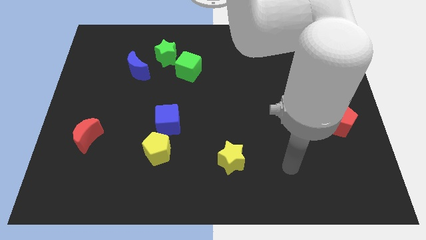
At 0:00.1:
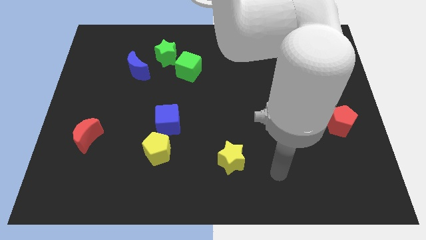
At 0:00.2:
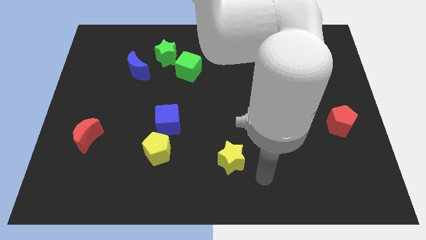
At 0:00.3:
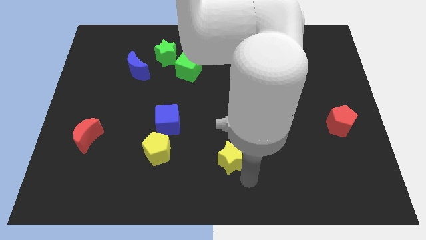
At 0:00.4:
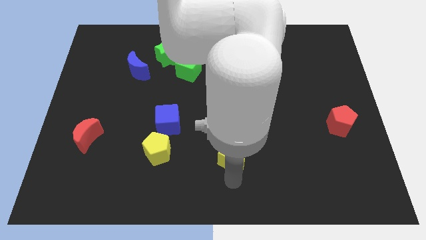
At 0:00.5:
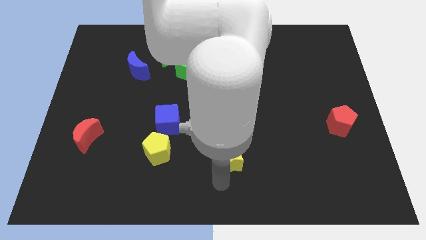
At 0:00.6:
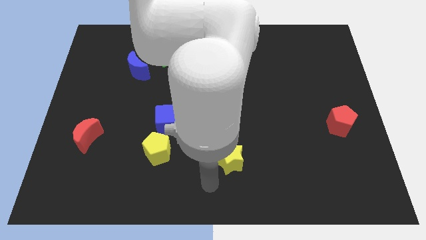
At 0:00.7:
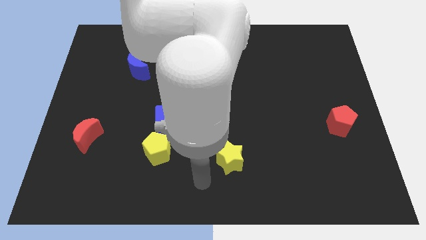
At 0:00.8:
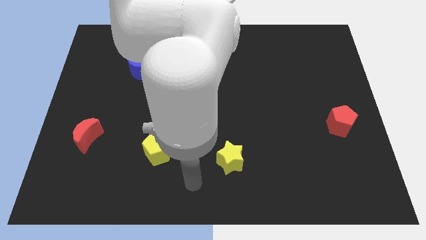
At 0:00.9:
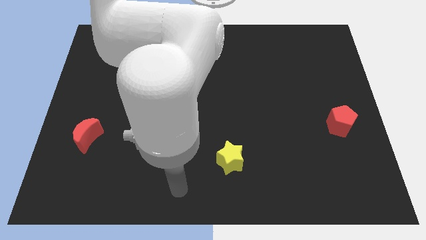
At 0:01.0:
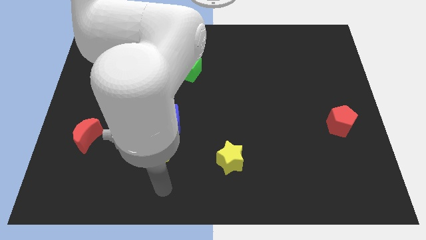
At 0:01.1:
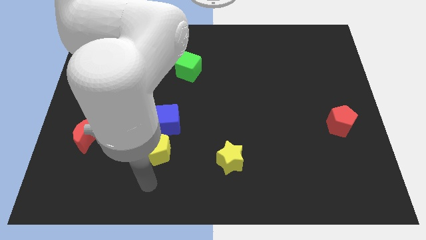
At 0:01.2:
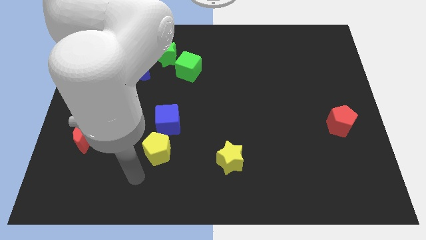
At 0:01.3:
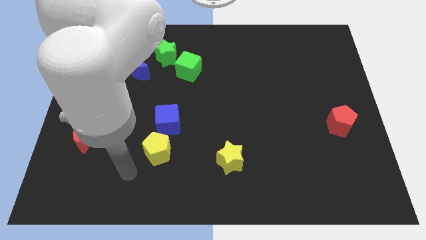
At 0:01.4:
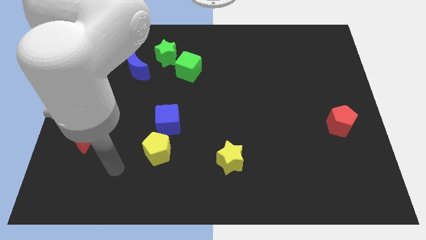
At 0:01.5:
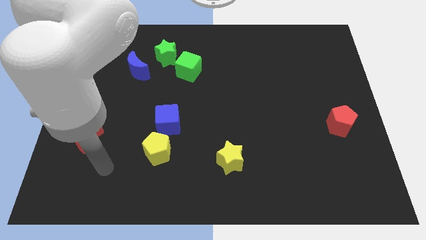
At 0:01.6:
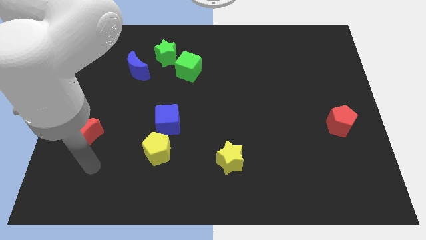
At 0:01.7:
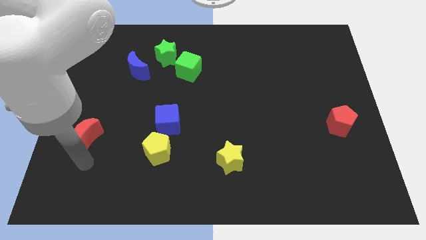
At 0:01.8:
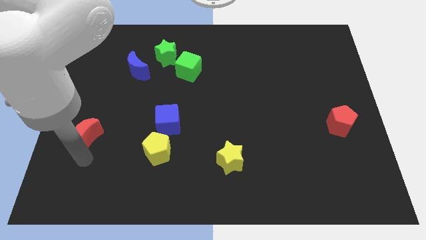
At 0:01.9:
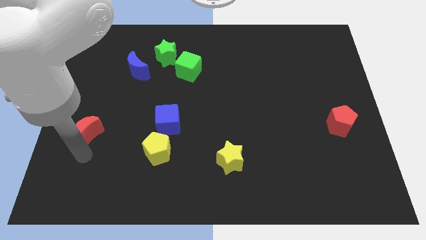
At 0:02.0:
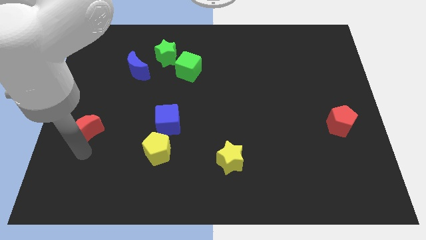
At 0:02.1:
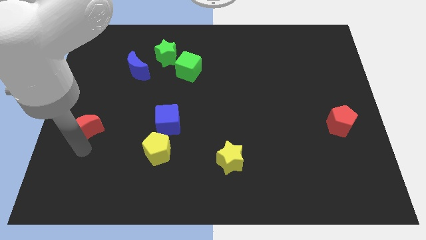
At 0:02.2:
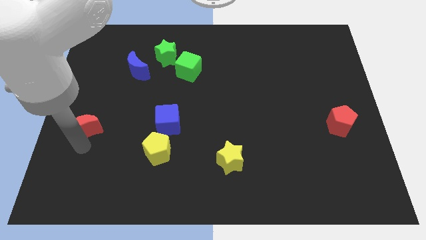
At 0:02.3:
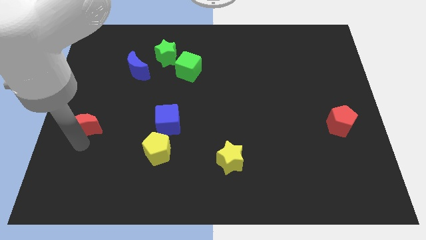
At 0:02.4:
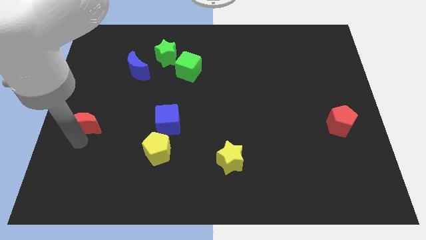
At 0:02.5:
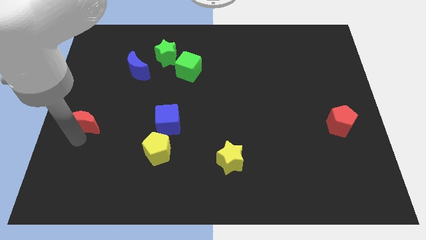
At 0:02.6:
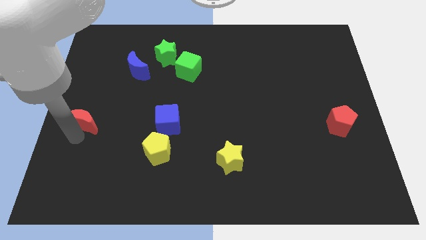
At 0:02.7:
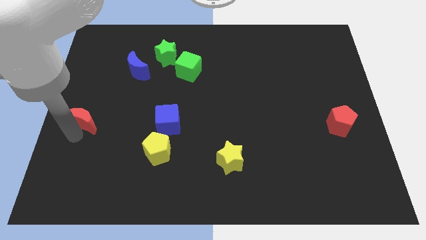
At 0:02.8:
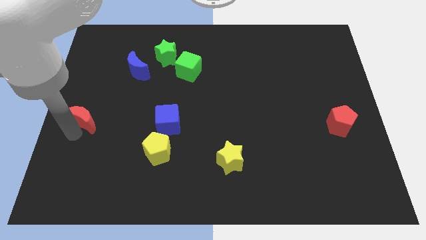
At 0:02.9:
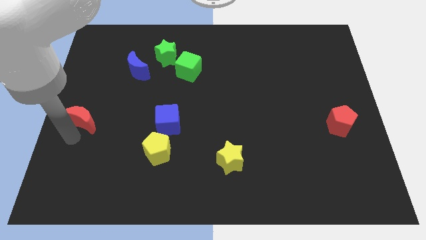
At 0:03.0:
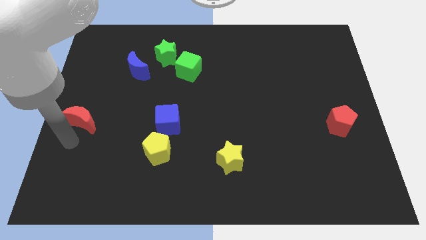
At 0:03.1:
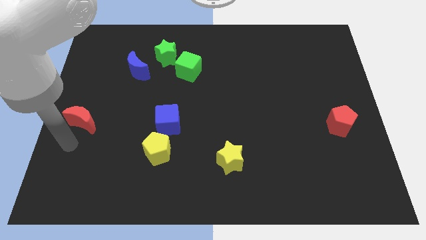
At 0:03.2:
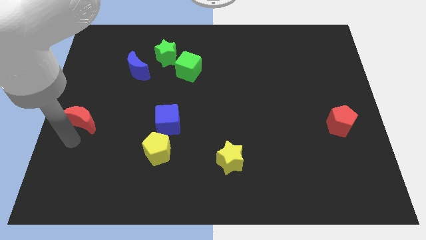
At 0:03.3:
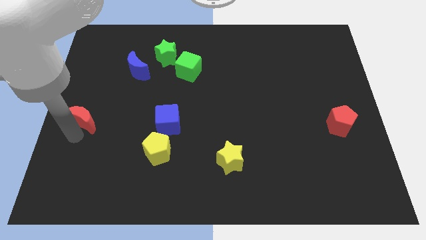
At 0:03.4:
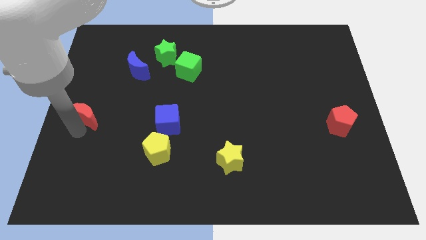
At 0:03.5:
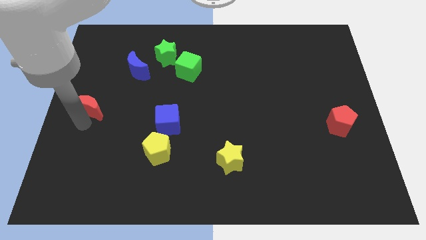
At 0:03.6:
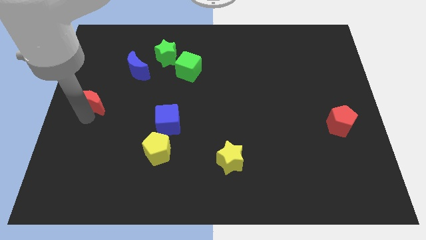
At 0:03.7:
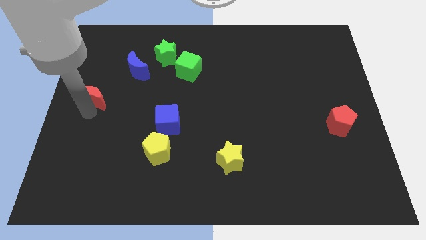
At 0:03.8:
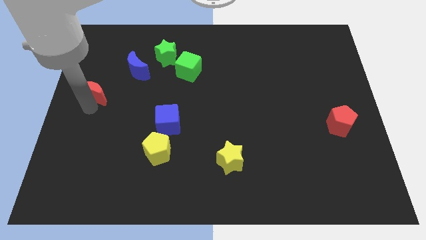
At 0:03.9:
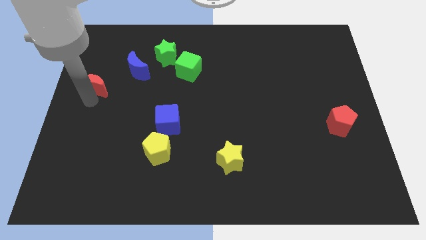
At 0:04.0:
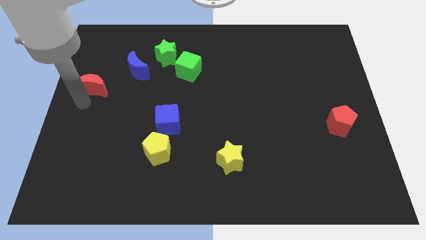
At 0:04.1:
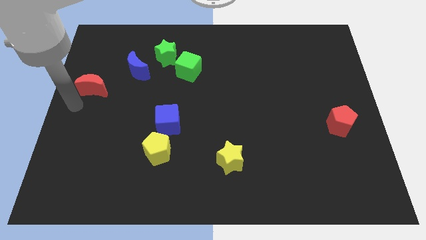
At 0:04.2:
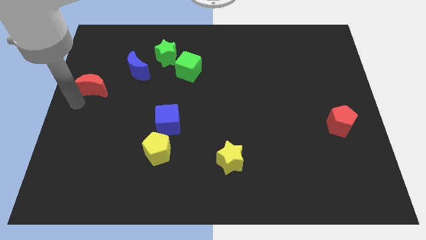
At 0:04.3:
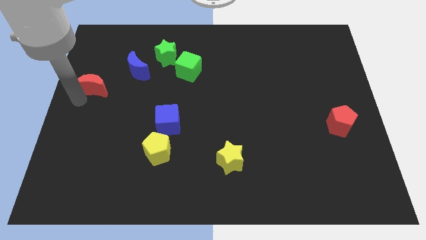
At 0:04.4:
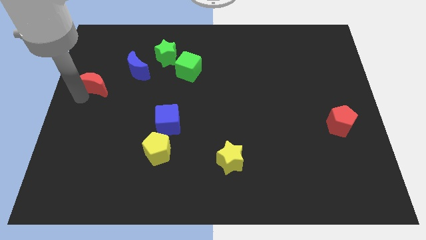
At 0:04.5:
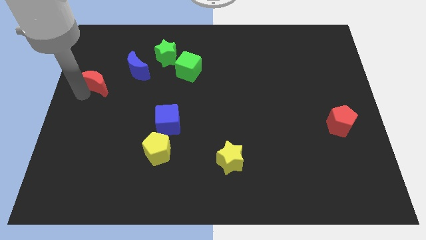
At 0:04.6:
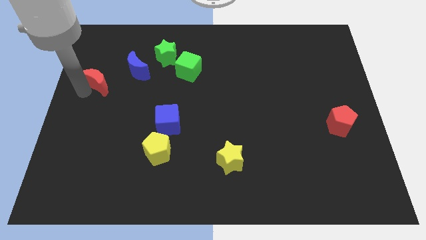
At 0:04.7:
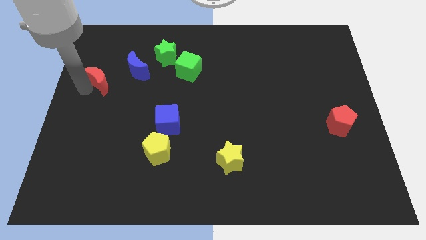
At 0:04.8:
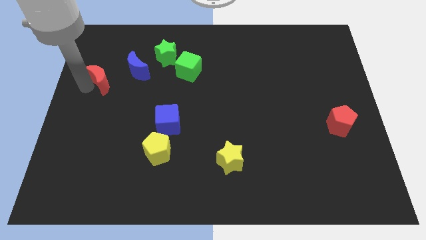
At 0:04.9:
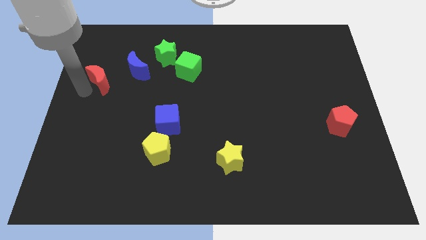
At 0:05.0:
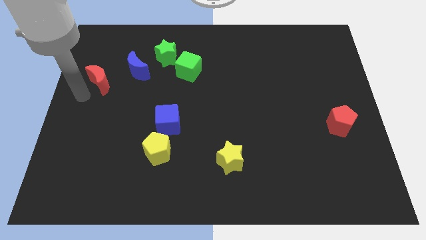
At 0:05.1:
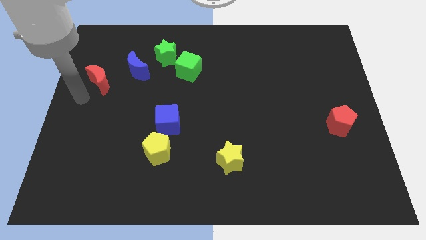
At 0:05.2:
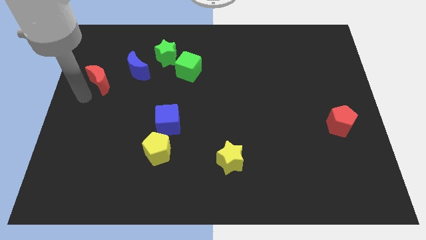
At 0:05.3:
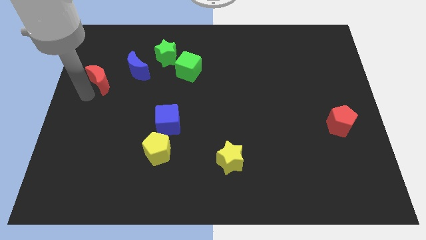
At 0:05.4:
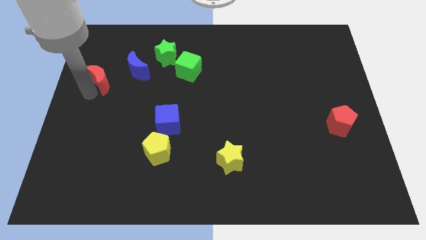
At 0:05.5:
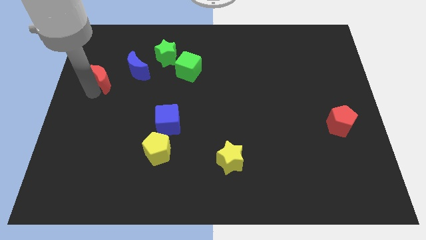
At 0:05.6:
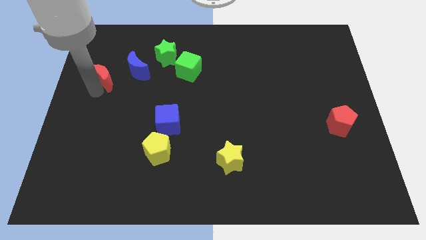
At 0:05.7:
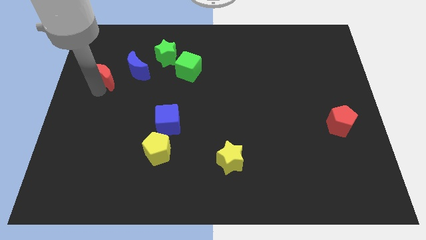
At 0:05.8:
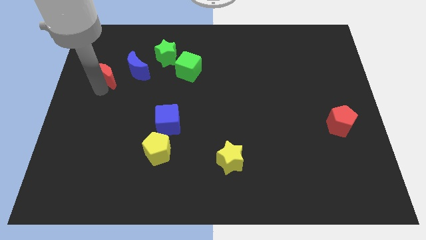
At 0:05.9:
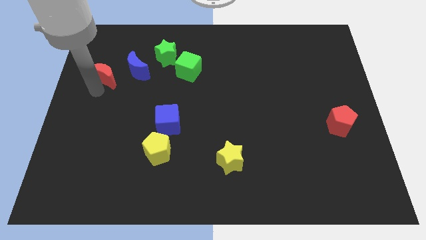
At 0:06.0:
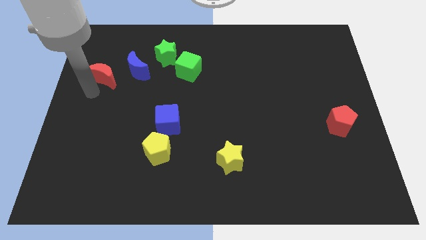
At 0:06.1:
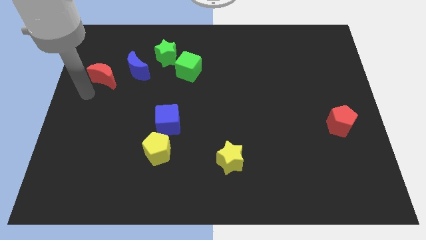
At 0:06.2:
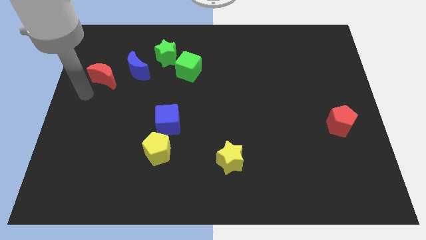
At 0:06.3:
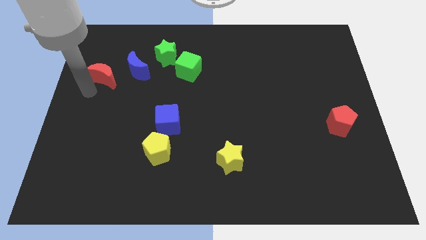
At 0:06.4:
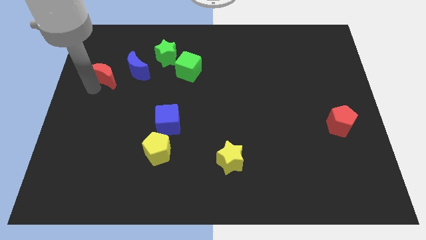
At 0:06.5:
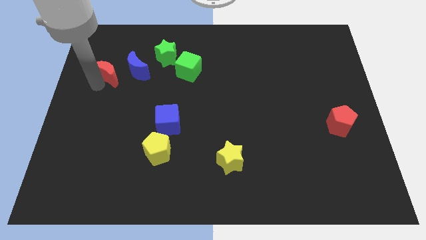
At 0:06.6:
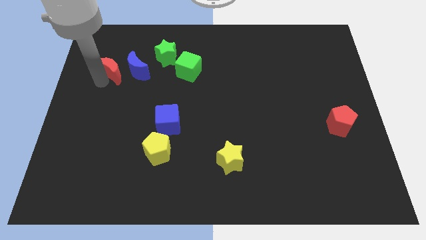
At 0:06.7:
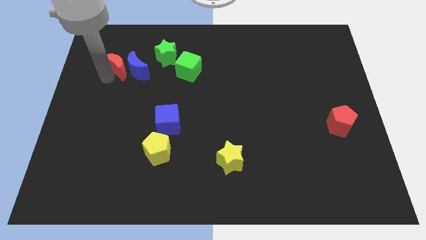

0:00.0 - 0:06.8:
move the red moon to the left of the green star
